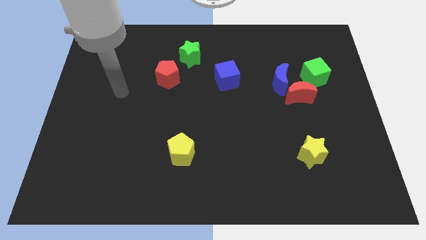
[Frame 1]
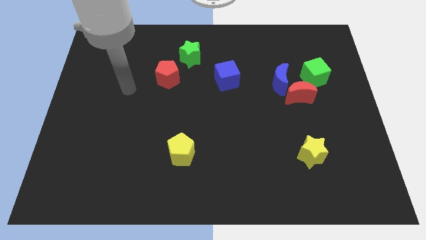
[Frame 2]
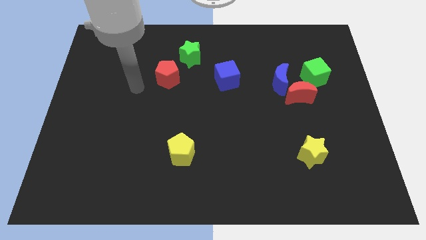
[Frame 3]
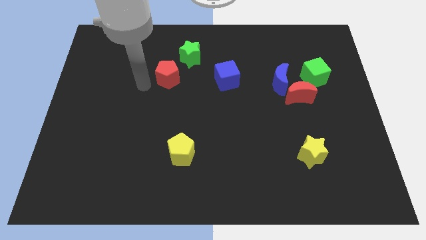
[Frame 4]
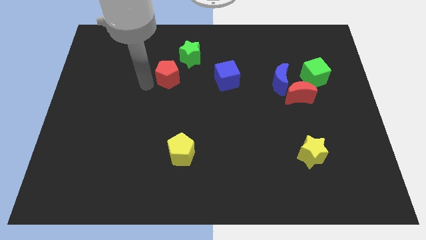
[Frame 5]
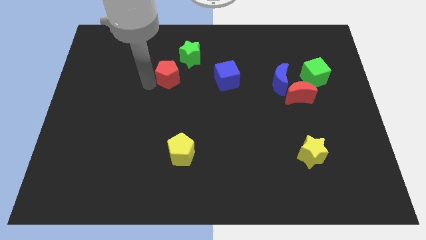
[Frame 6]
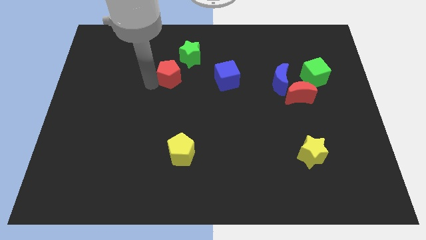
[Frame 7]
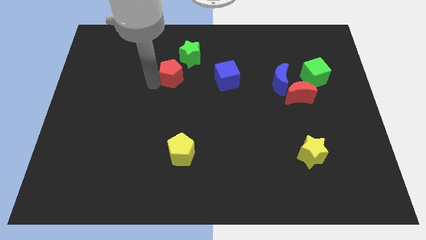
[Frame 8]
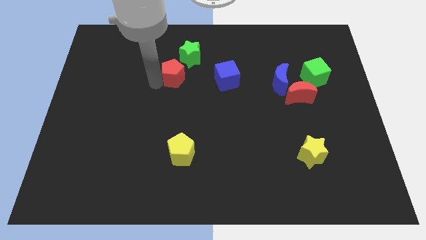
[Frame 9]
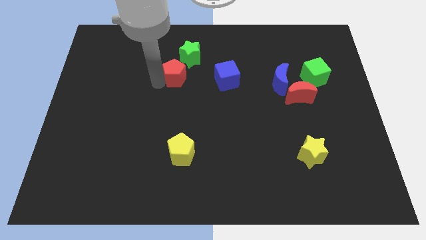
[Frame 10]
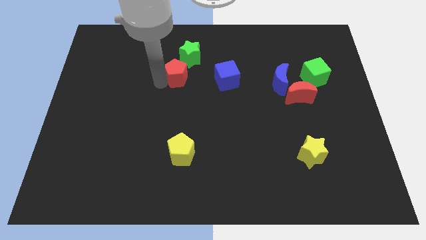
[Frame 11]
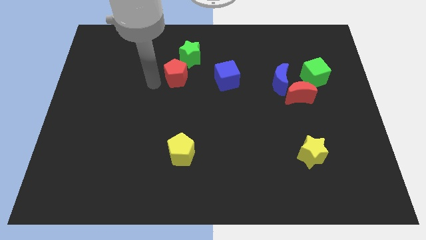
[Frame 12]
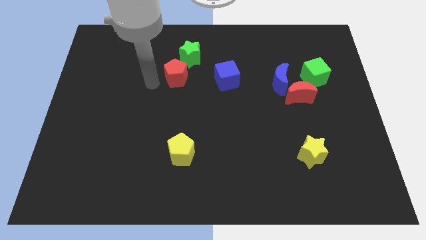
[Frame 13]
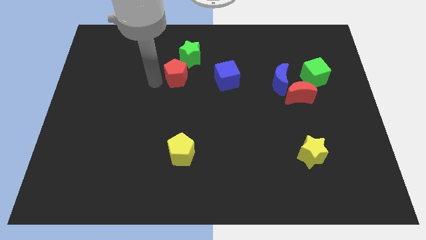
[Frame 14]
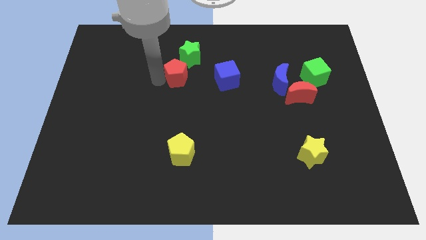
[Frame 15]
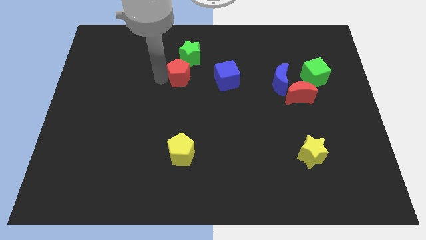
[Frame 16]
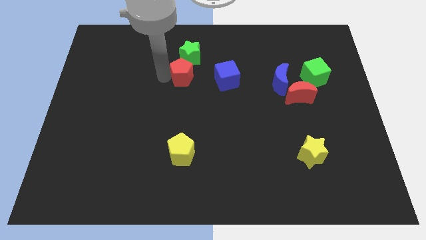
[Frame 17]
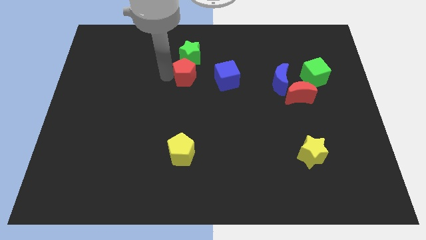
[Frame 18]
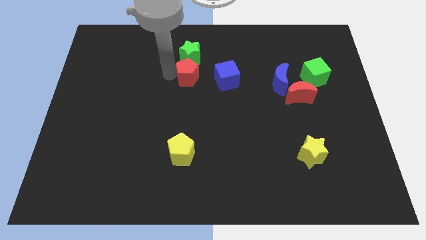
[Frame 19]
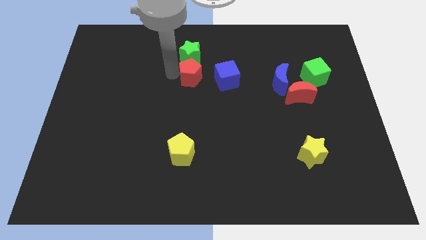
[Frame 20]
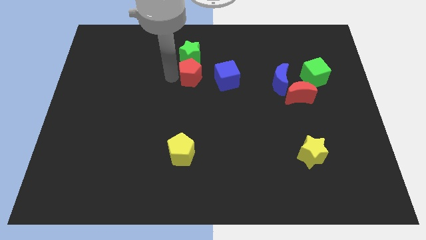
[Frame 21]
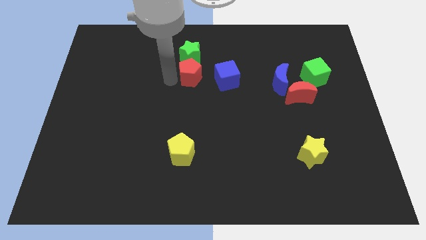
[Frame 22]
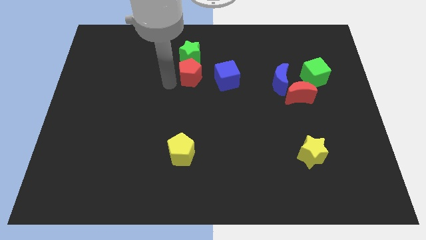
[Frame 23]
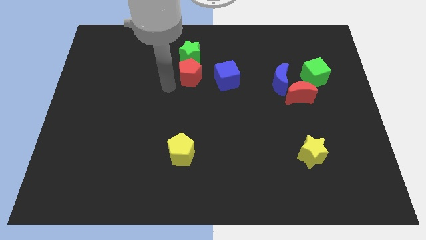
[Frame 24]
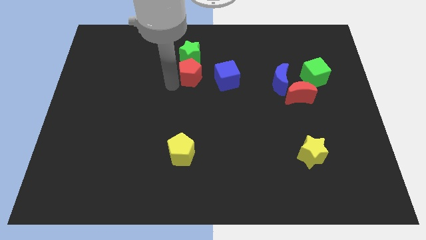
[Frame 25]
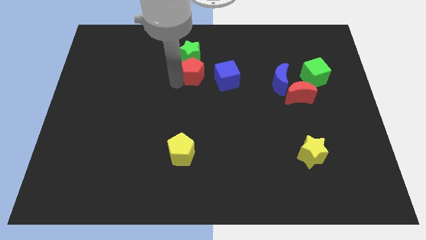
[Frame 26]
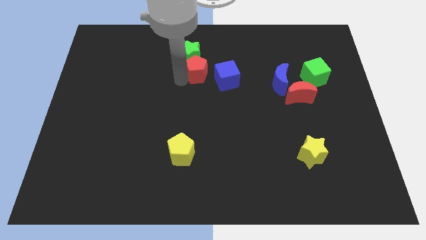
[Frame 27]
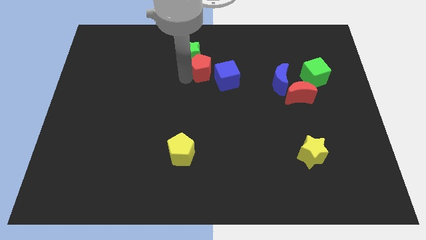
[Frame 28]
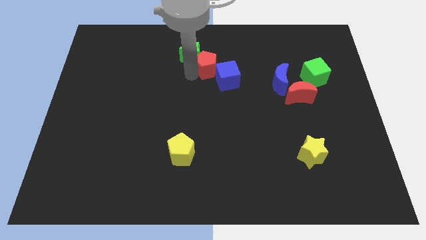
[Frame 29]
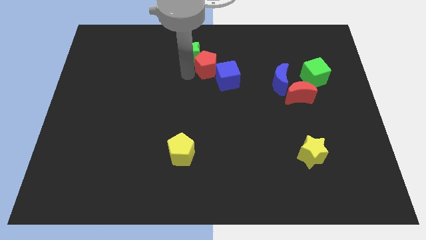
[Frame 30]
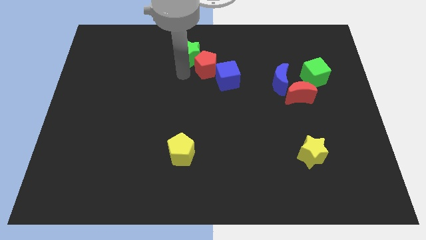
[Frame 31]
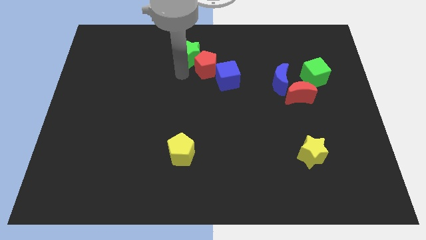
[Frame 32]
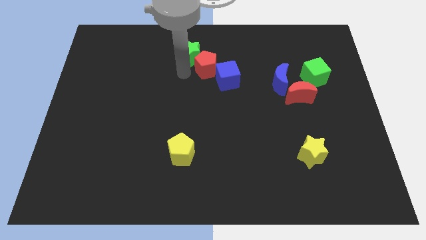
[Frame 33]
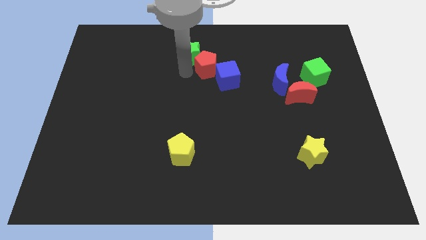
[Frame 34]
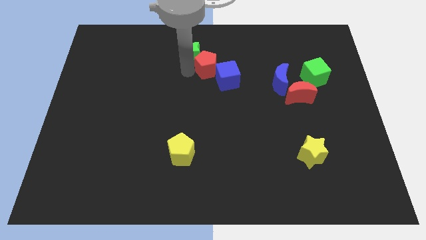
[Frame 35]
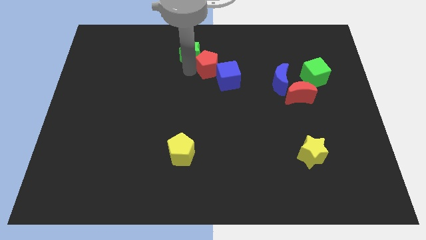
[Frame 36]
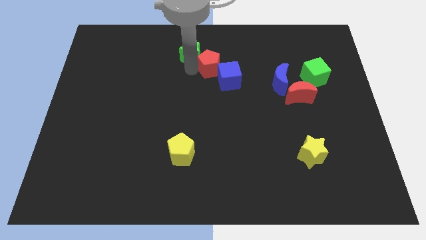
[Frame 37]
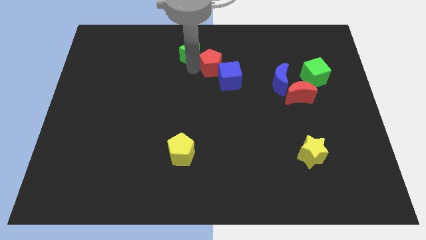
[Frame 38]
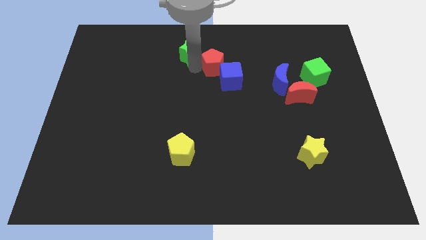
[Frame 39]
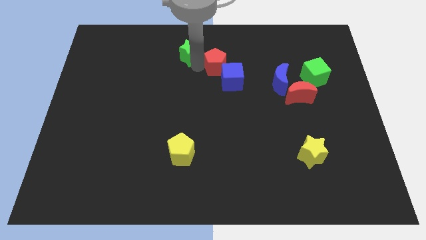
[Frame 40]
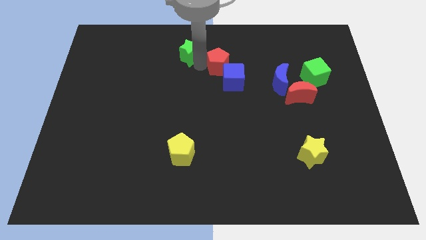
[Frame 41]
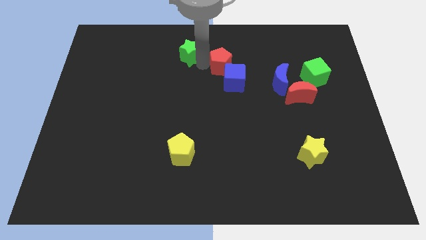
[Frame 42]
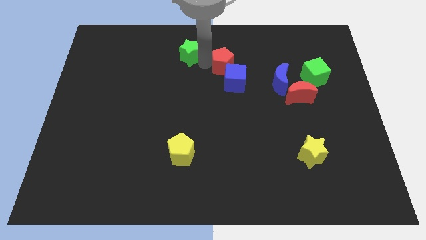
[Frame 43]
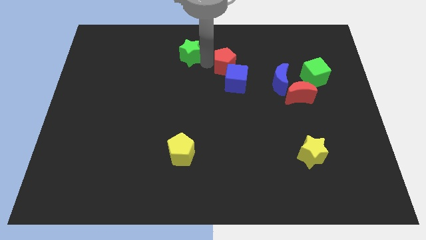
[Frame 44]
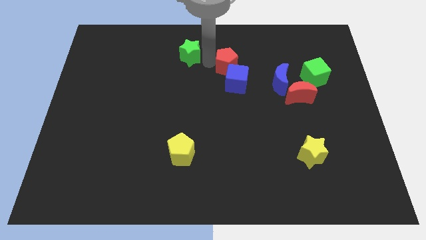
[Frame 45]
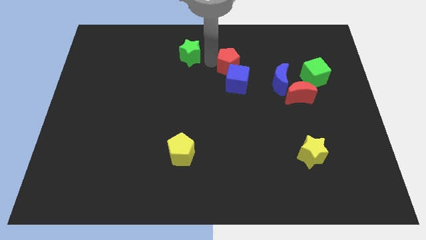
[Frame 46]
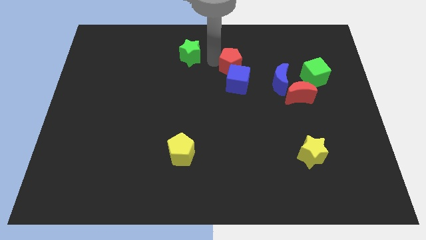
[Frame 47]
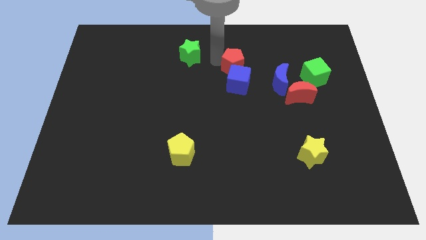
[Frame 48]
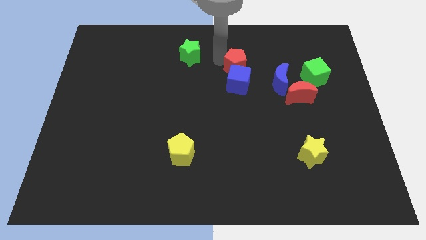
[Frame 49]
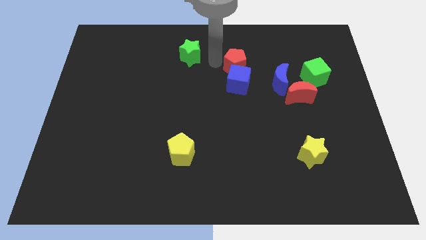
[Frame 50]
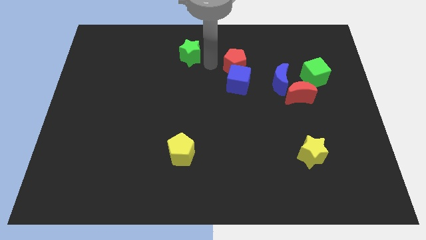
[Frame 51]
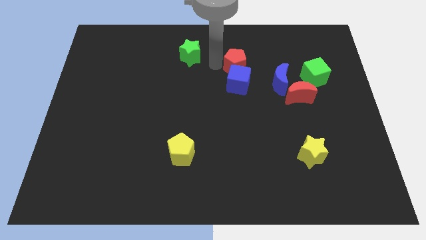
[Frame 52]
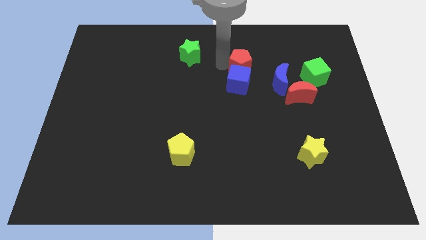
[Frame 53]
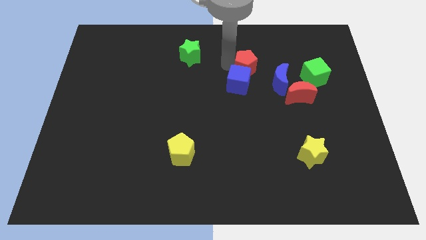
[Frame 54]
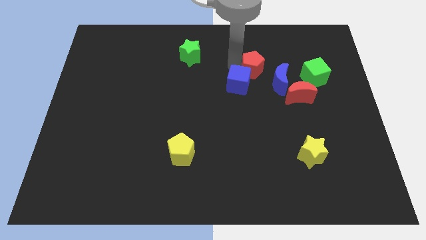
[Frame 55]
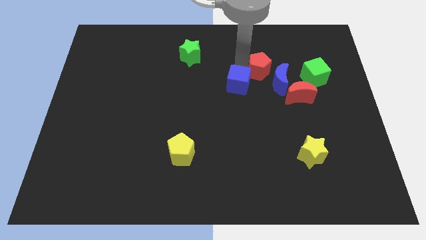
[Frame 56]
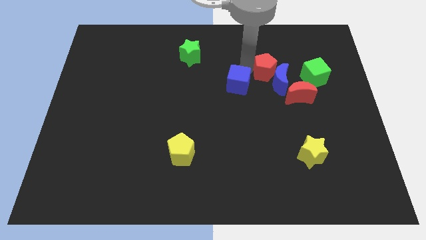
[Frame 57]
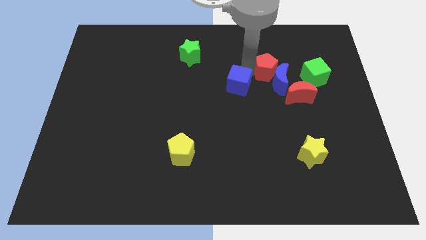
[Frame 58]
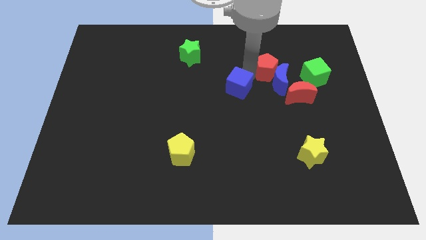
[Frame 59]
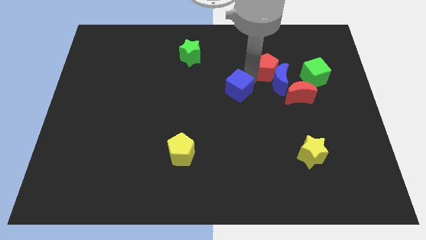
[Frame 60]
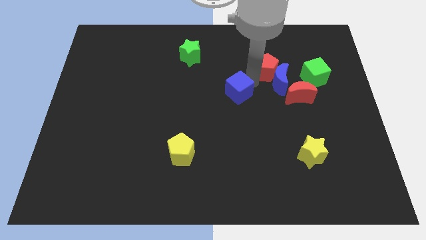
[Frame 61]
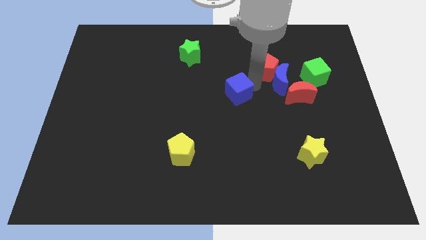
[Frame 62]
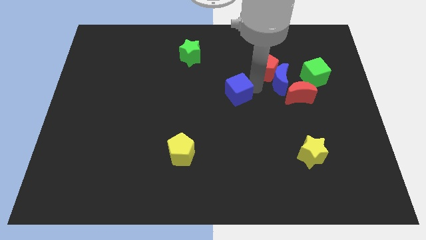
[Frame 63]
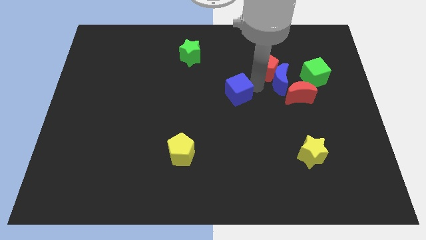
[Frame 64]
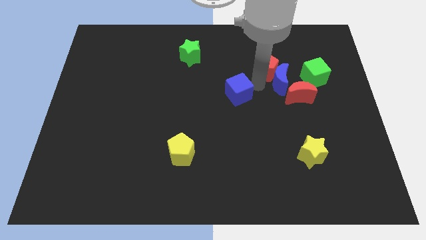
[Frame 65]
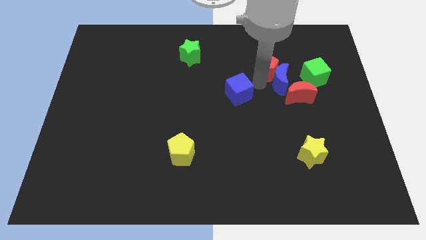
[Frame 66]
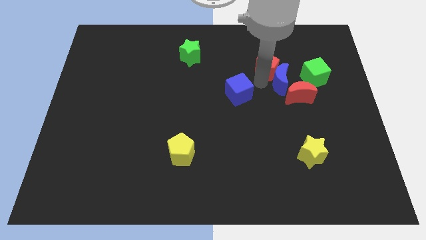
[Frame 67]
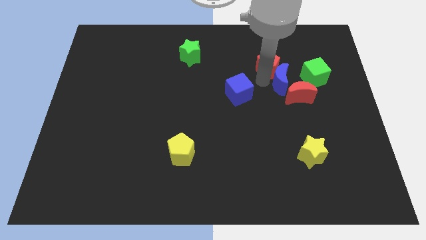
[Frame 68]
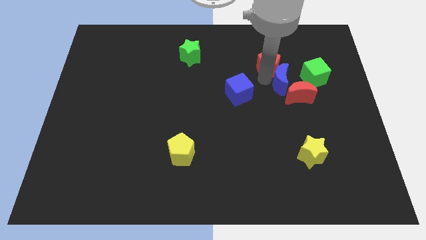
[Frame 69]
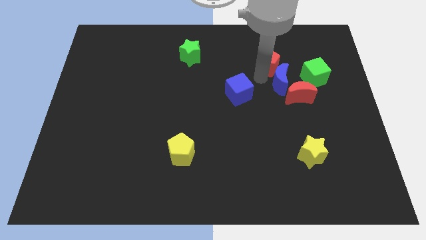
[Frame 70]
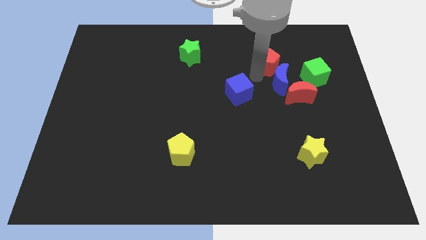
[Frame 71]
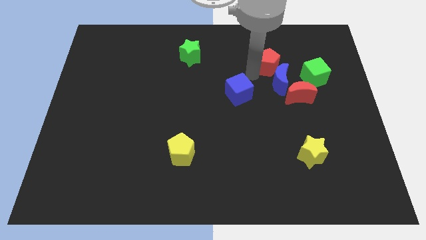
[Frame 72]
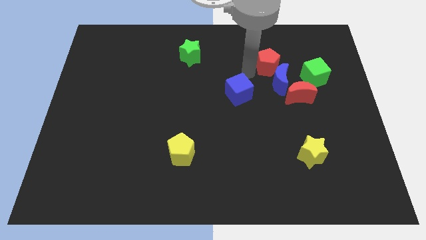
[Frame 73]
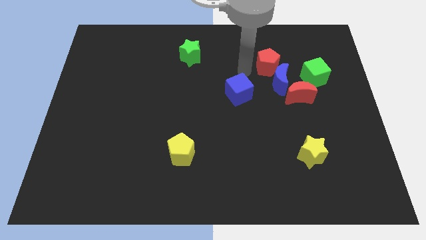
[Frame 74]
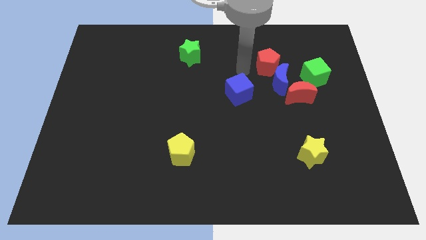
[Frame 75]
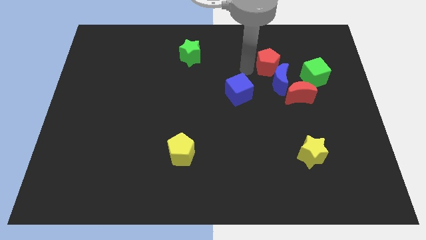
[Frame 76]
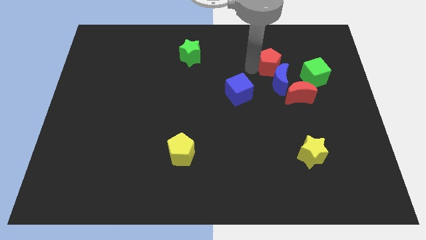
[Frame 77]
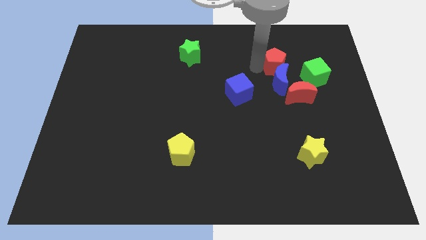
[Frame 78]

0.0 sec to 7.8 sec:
slide the red pentagon diagonally up and to the right of the blue moon
